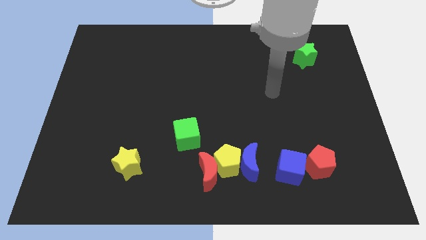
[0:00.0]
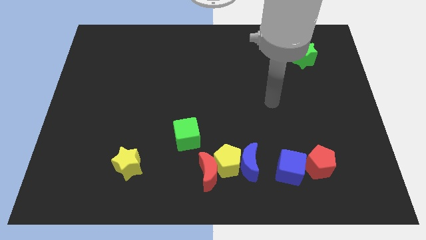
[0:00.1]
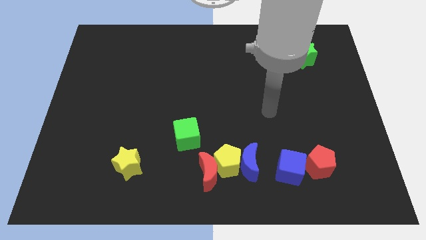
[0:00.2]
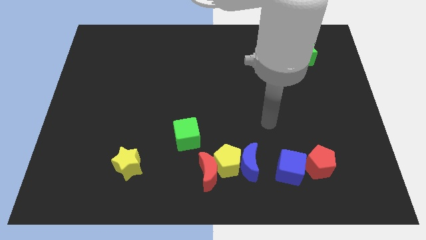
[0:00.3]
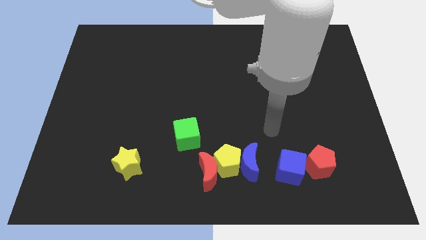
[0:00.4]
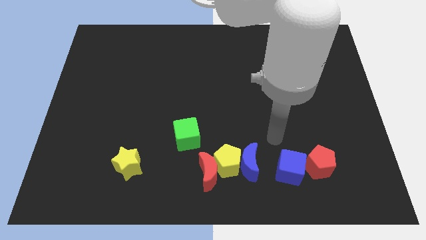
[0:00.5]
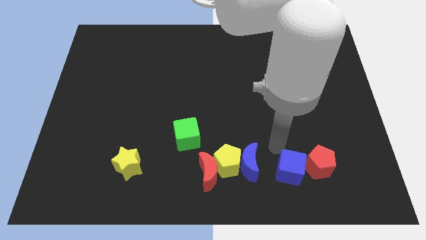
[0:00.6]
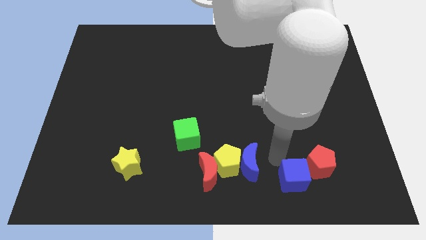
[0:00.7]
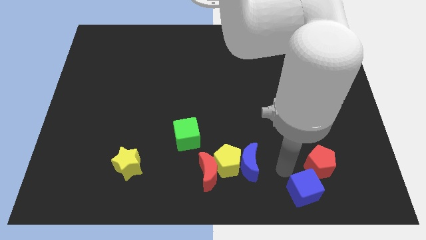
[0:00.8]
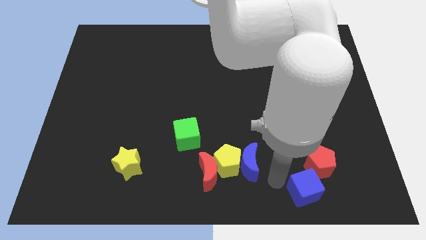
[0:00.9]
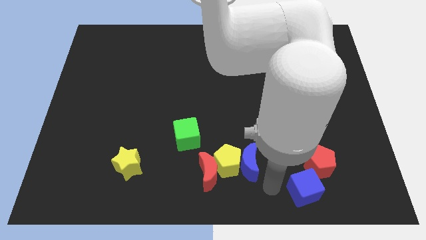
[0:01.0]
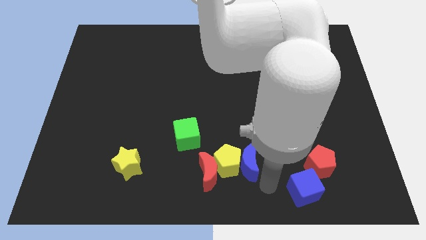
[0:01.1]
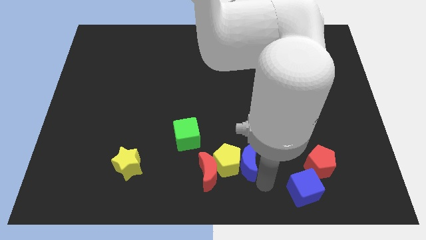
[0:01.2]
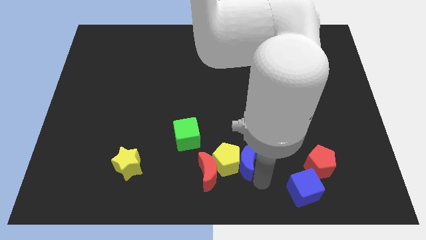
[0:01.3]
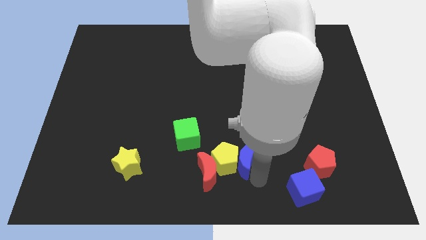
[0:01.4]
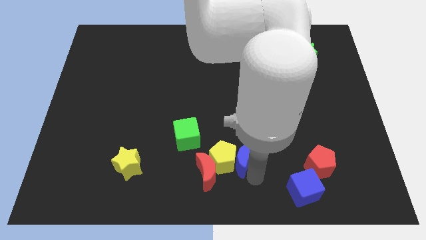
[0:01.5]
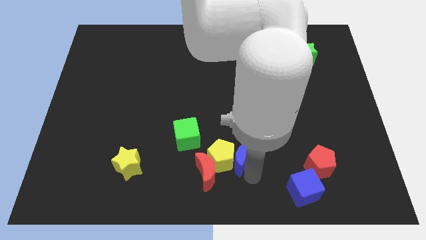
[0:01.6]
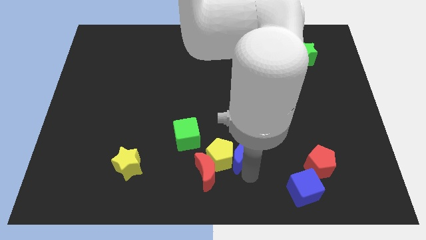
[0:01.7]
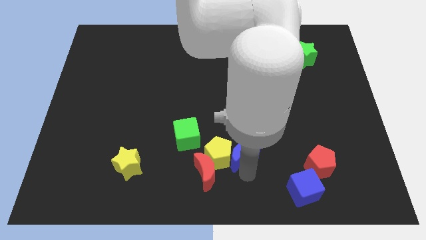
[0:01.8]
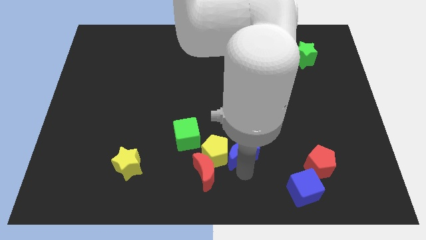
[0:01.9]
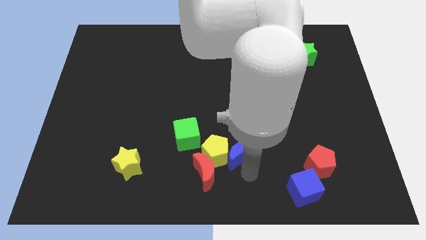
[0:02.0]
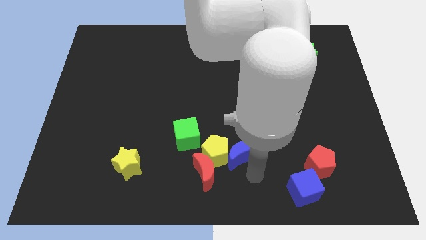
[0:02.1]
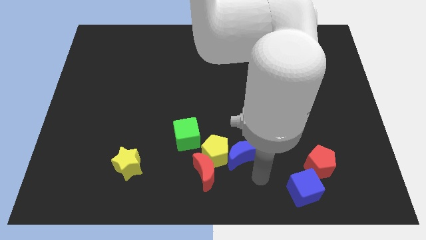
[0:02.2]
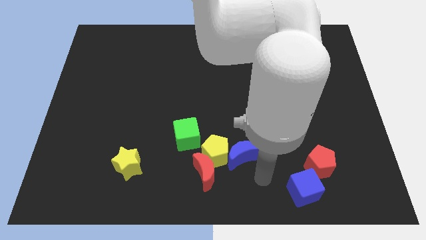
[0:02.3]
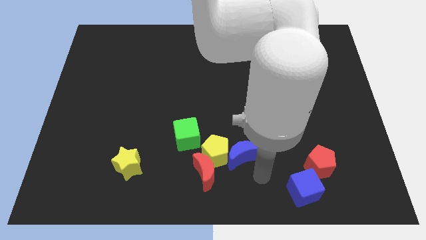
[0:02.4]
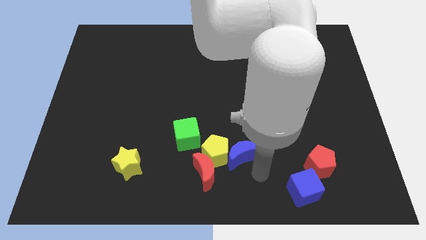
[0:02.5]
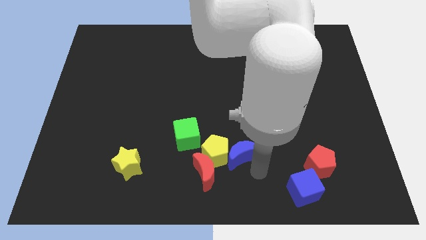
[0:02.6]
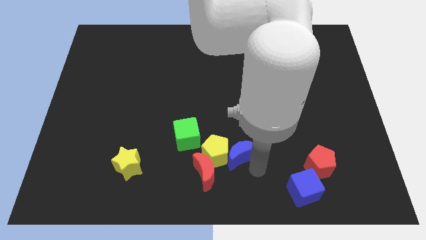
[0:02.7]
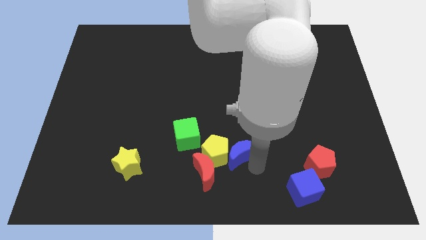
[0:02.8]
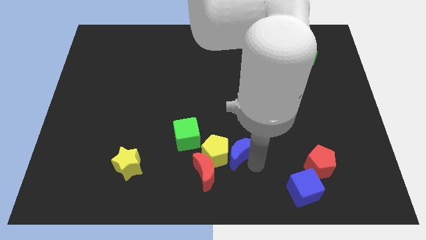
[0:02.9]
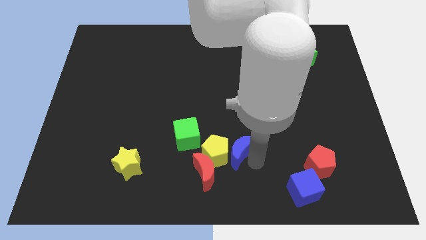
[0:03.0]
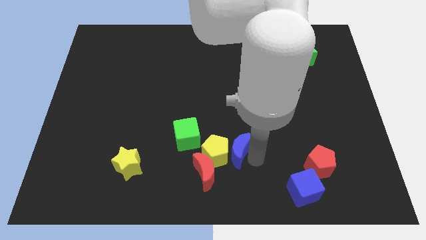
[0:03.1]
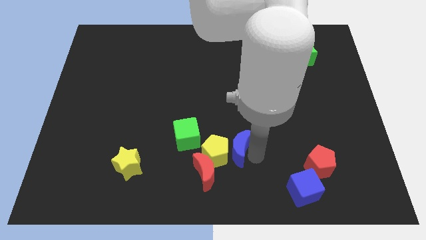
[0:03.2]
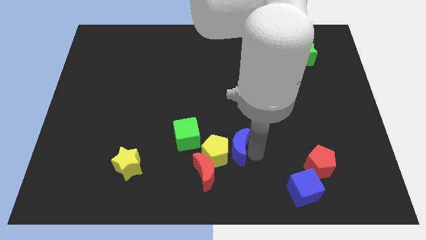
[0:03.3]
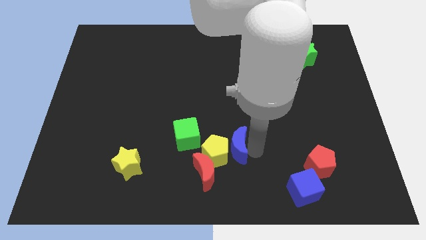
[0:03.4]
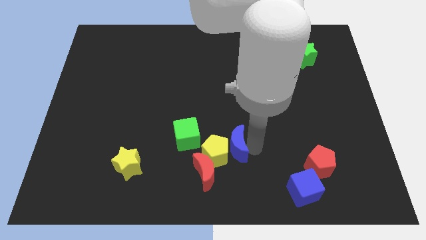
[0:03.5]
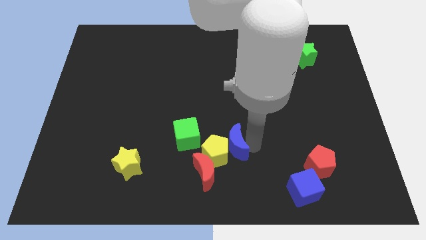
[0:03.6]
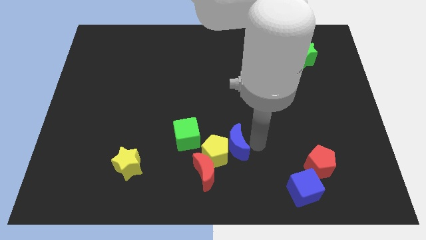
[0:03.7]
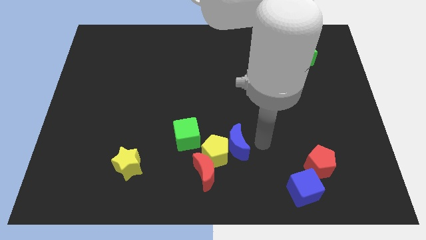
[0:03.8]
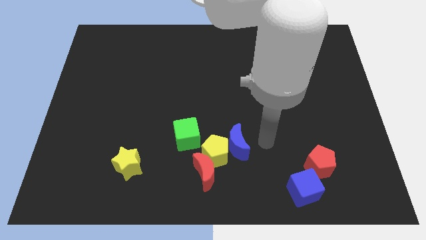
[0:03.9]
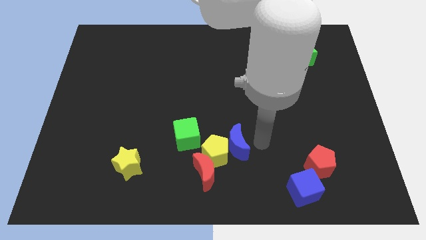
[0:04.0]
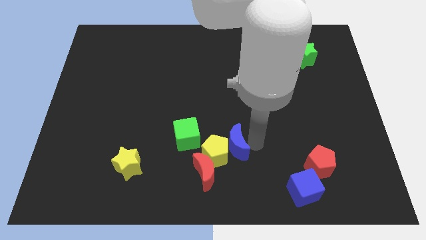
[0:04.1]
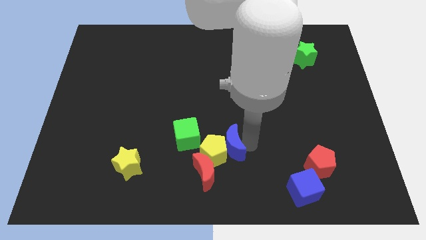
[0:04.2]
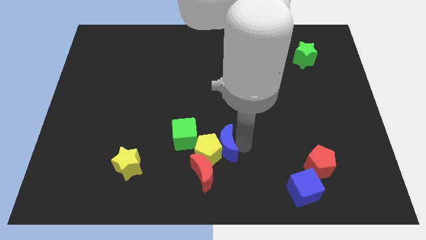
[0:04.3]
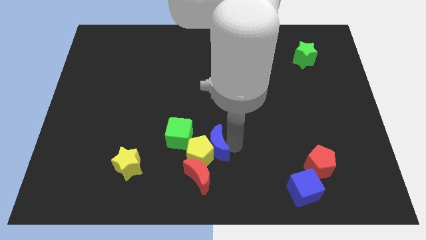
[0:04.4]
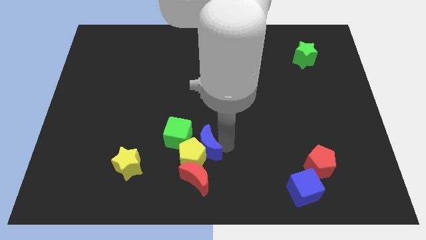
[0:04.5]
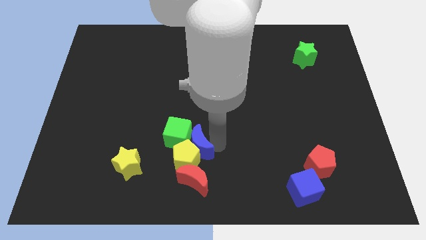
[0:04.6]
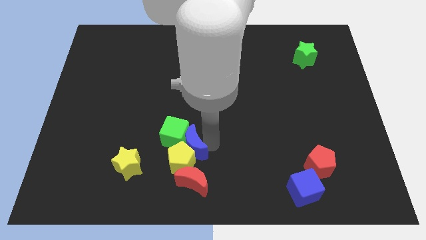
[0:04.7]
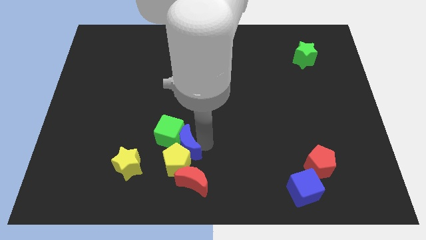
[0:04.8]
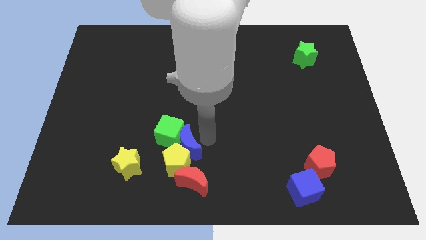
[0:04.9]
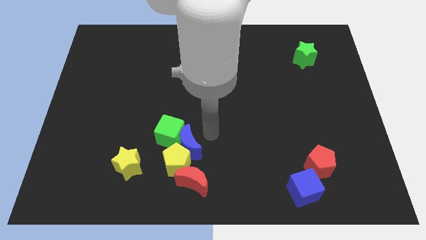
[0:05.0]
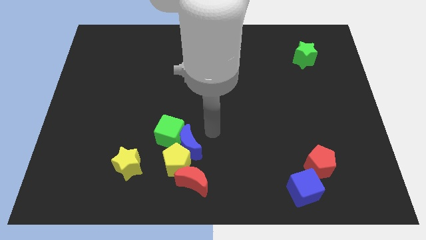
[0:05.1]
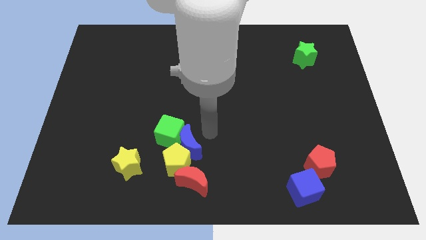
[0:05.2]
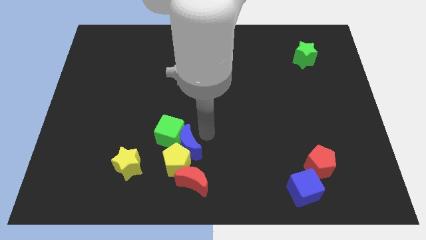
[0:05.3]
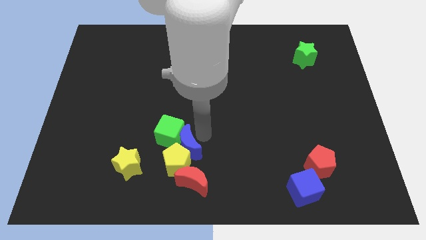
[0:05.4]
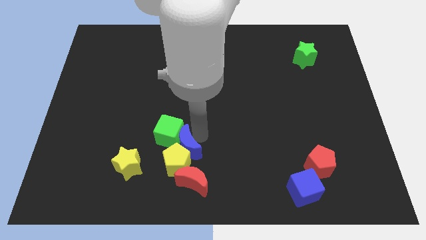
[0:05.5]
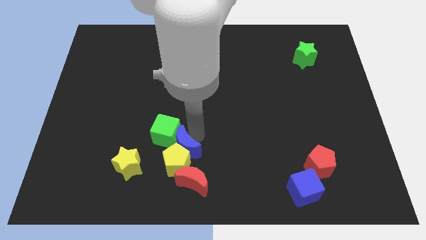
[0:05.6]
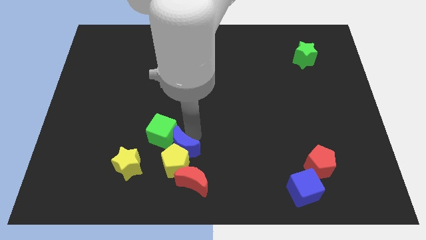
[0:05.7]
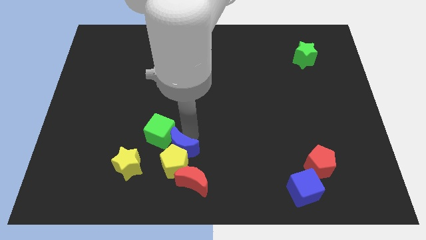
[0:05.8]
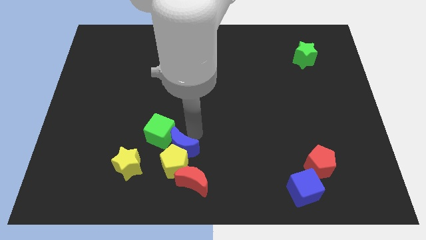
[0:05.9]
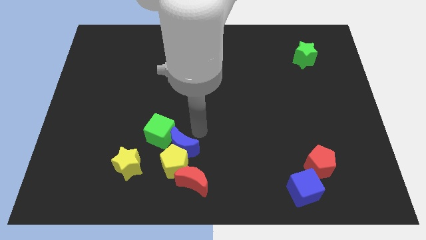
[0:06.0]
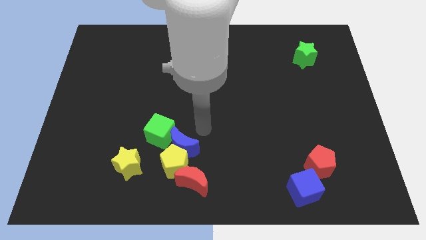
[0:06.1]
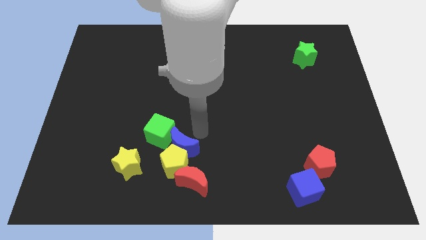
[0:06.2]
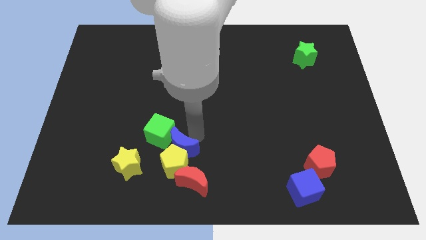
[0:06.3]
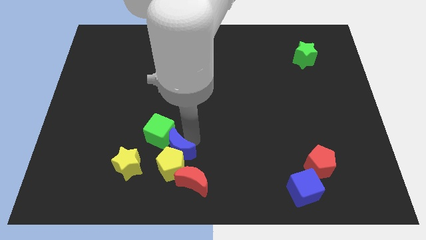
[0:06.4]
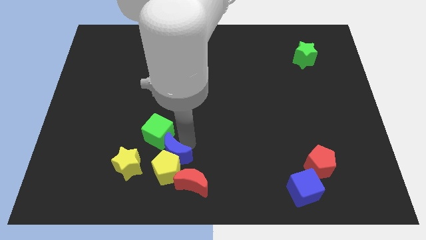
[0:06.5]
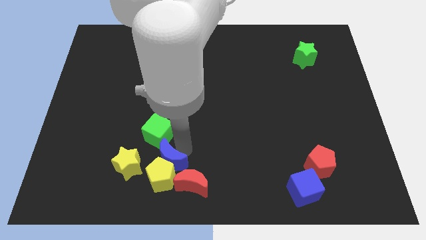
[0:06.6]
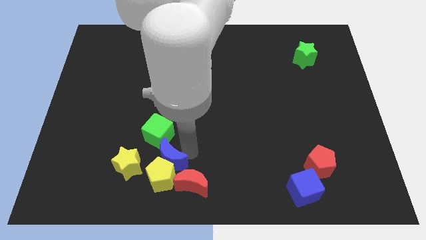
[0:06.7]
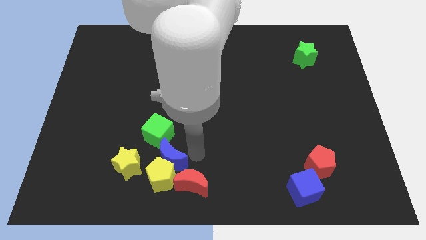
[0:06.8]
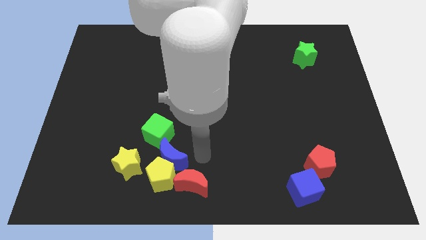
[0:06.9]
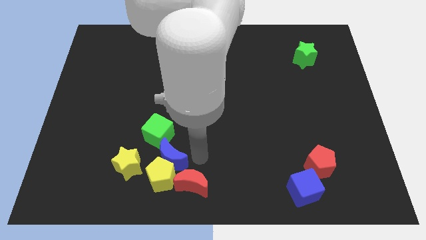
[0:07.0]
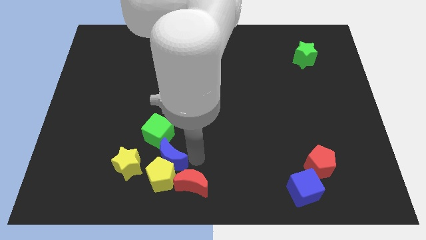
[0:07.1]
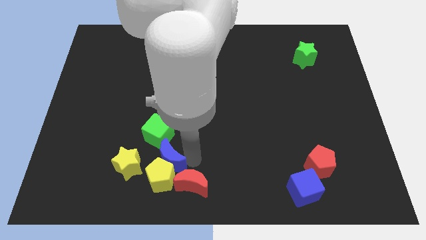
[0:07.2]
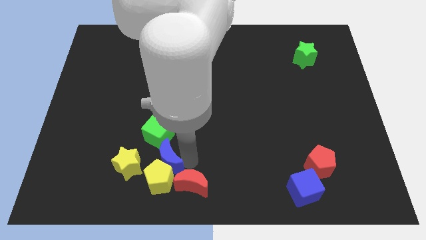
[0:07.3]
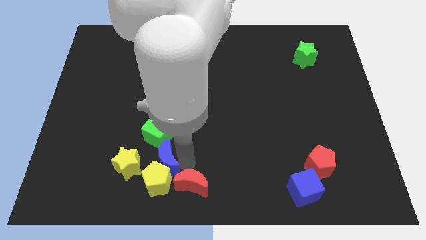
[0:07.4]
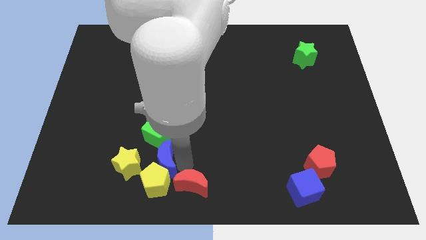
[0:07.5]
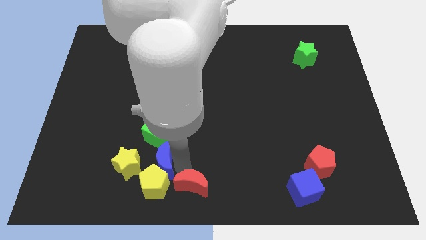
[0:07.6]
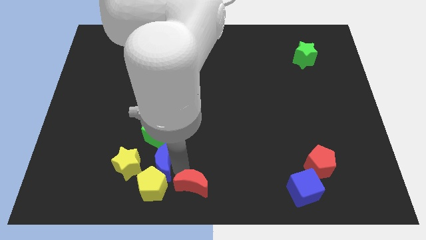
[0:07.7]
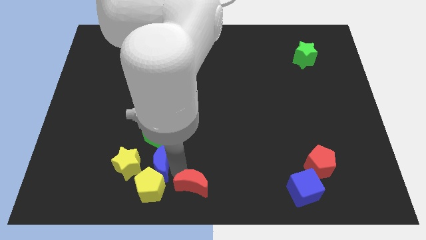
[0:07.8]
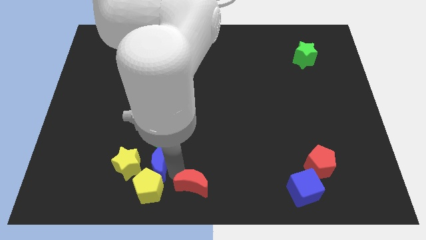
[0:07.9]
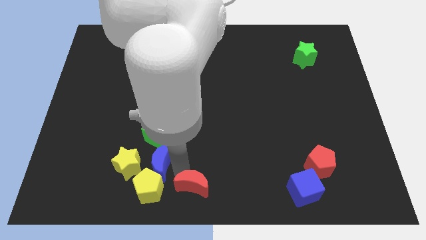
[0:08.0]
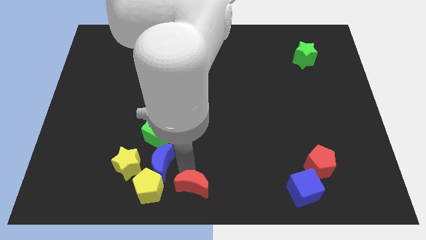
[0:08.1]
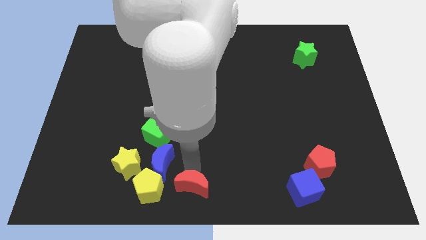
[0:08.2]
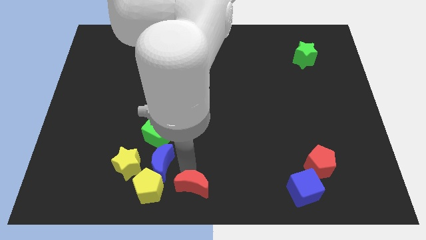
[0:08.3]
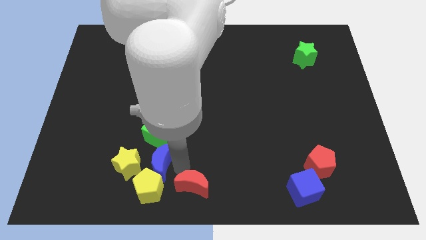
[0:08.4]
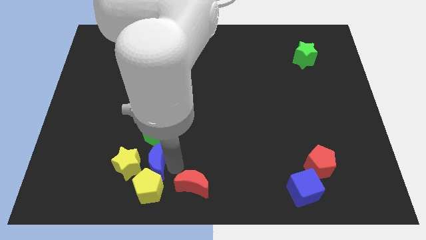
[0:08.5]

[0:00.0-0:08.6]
slide the blue moon to the yellow star
